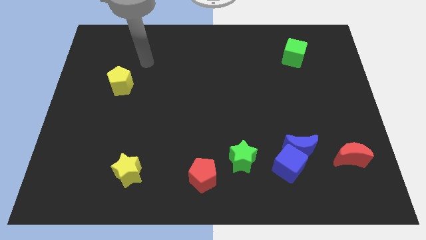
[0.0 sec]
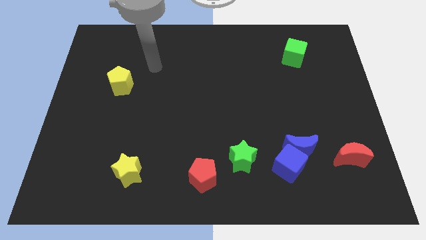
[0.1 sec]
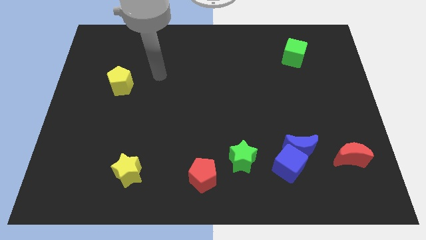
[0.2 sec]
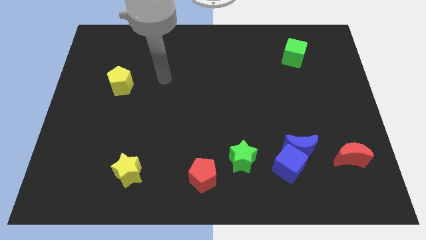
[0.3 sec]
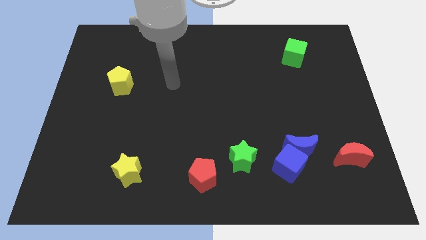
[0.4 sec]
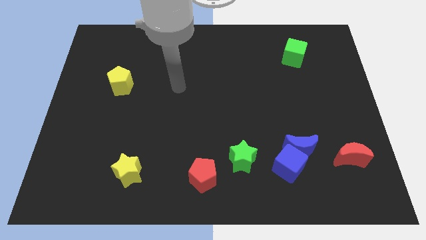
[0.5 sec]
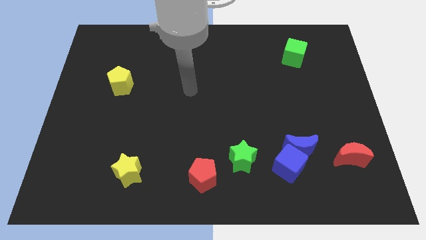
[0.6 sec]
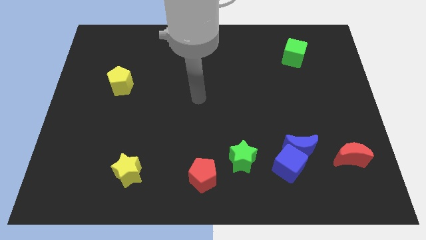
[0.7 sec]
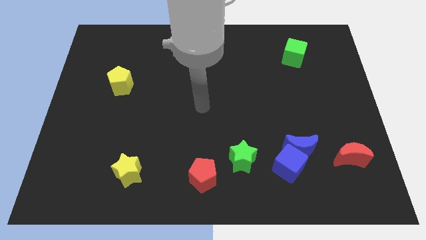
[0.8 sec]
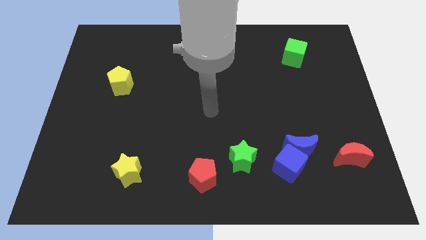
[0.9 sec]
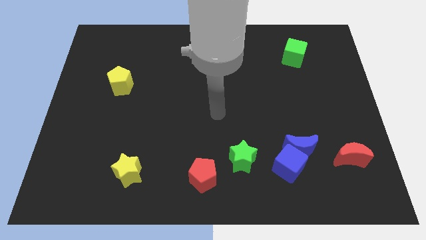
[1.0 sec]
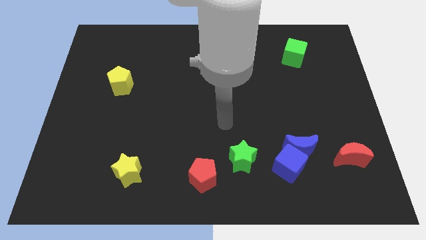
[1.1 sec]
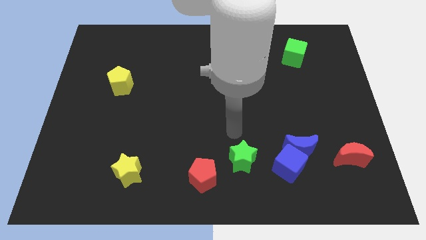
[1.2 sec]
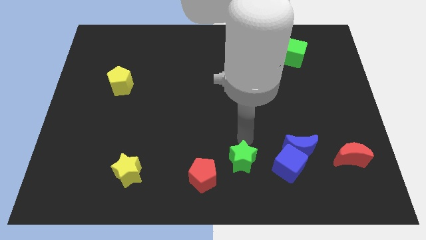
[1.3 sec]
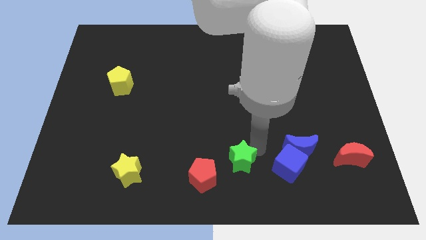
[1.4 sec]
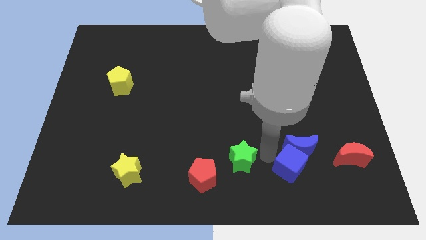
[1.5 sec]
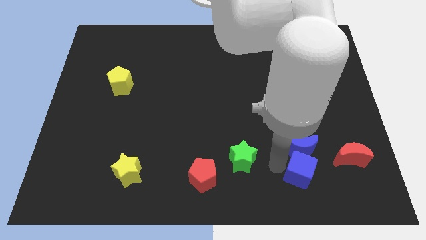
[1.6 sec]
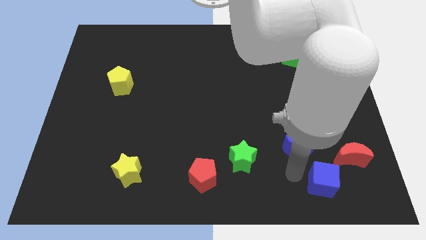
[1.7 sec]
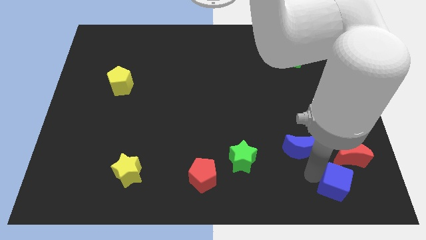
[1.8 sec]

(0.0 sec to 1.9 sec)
pull the blue moon apart from the blue cube

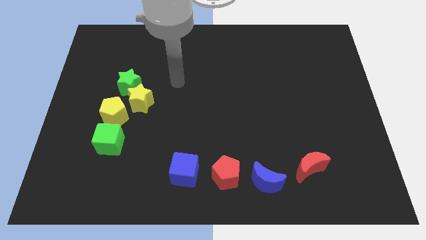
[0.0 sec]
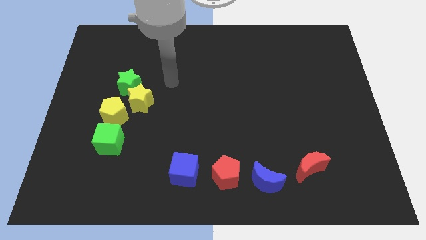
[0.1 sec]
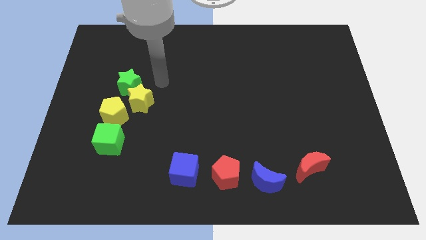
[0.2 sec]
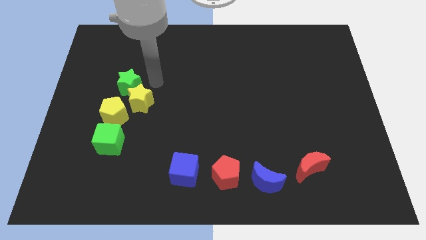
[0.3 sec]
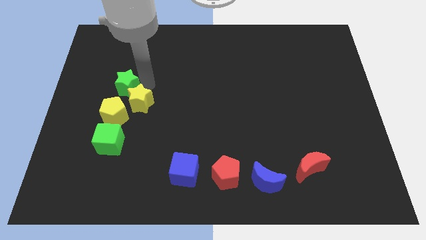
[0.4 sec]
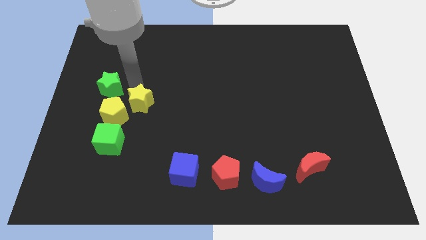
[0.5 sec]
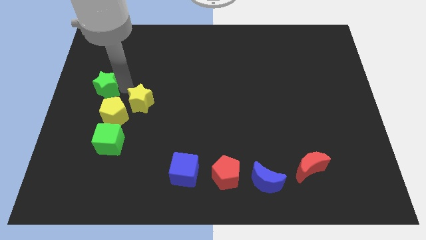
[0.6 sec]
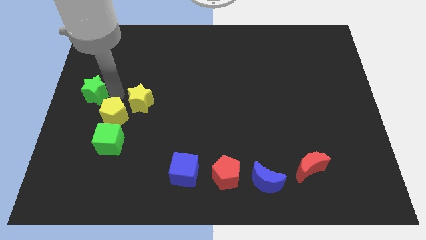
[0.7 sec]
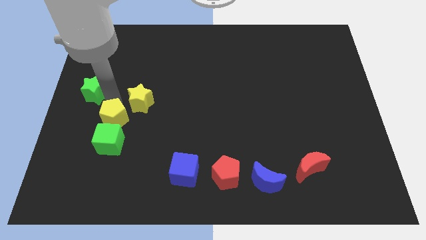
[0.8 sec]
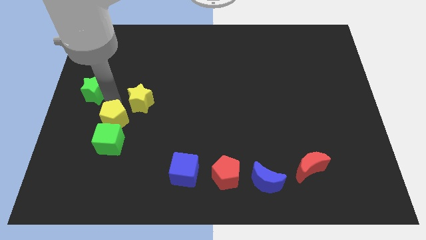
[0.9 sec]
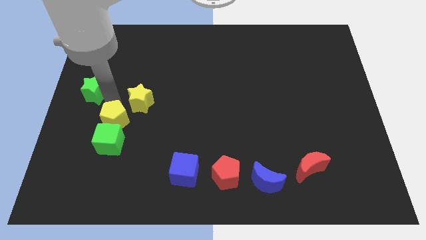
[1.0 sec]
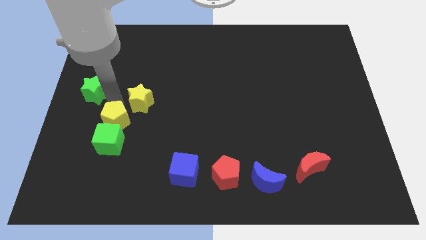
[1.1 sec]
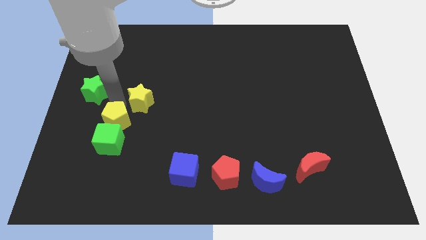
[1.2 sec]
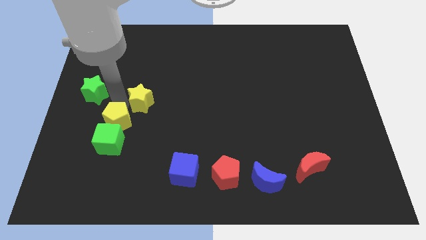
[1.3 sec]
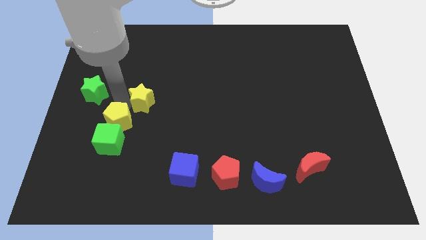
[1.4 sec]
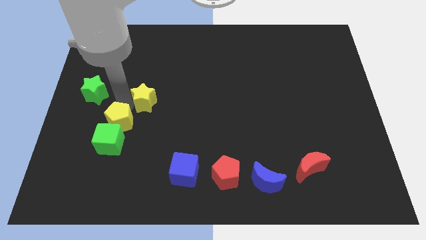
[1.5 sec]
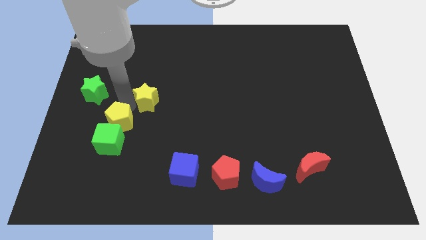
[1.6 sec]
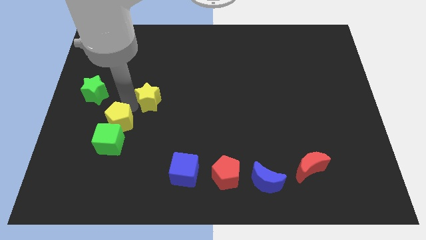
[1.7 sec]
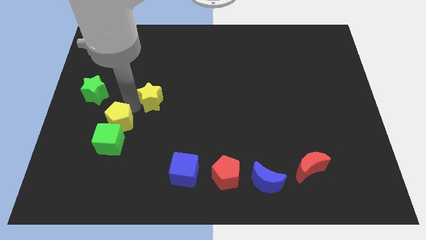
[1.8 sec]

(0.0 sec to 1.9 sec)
move the yellow star away from the green star and yellow pentagon

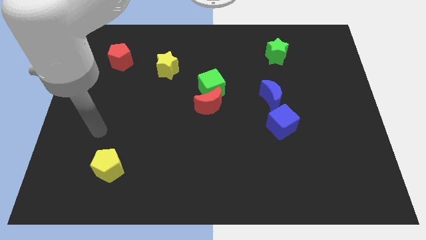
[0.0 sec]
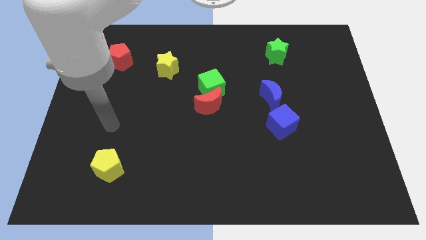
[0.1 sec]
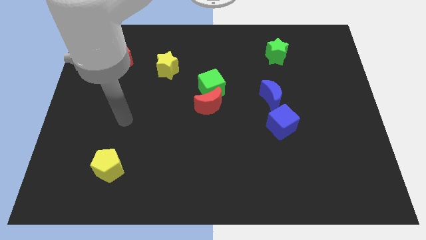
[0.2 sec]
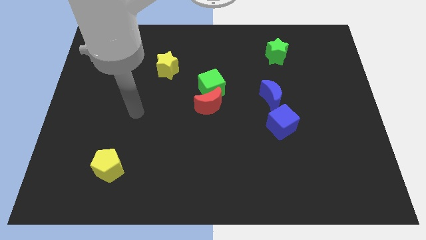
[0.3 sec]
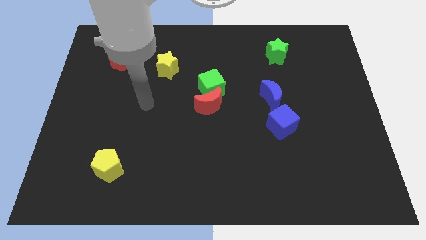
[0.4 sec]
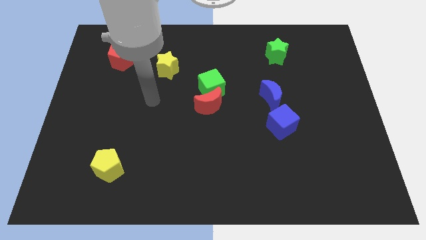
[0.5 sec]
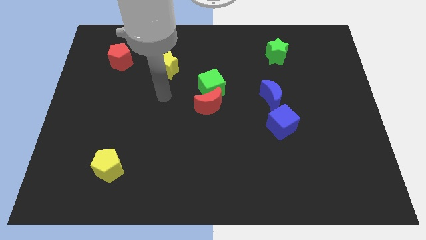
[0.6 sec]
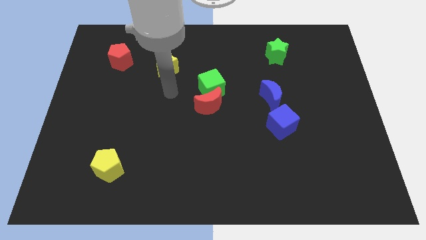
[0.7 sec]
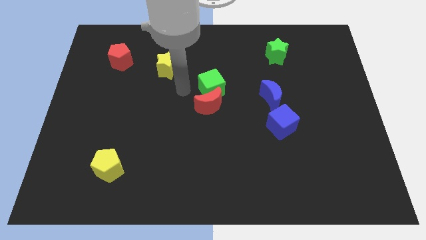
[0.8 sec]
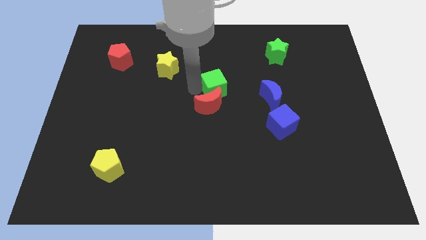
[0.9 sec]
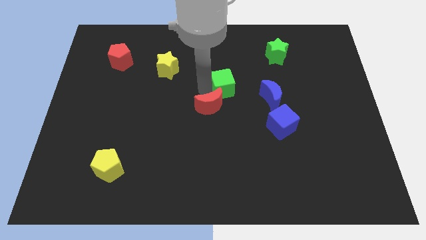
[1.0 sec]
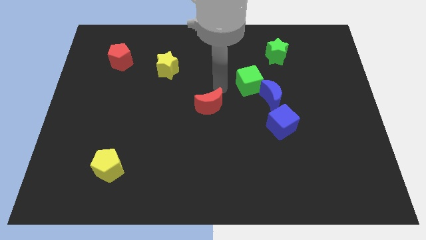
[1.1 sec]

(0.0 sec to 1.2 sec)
move the red moon away from the green cube

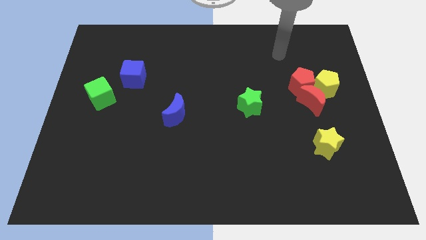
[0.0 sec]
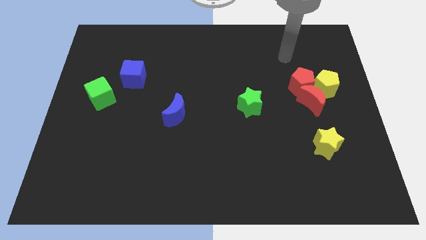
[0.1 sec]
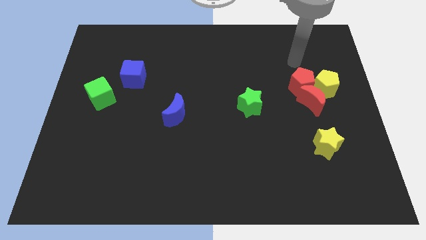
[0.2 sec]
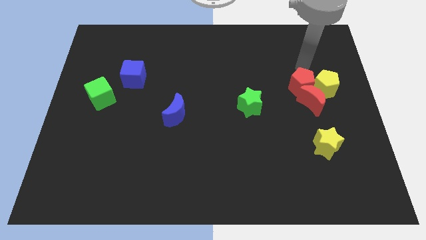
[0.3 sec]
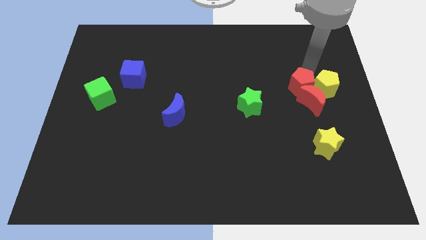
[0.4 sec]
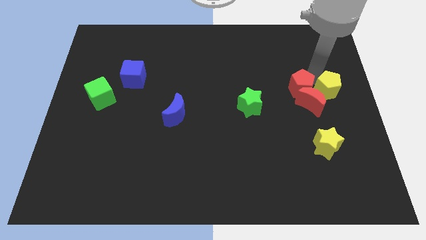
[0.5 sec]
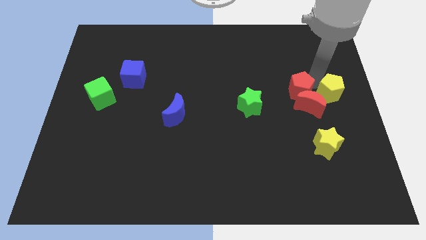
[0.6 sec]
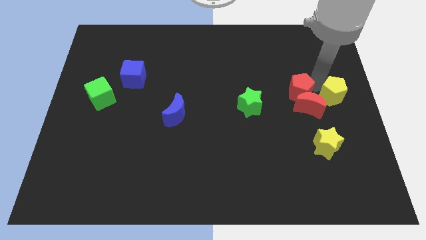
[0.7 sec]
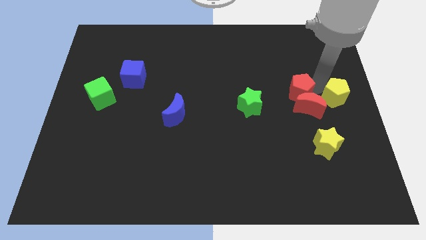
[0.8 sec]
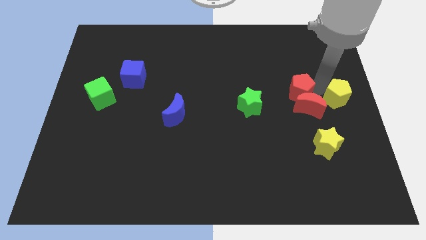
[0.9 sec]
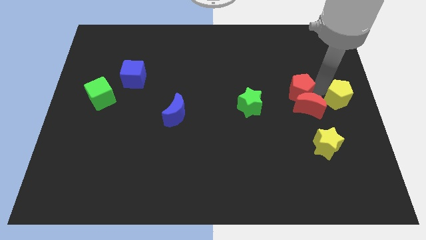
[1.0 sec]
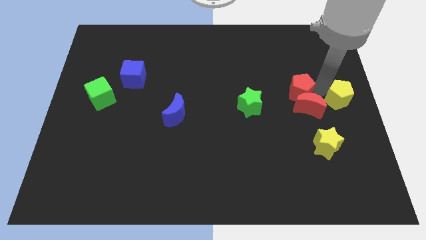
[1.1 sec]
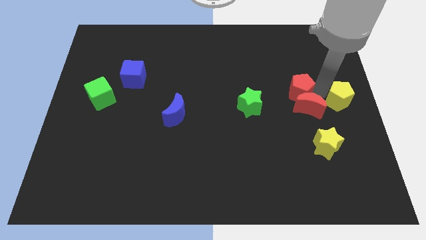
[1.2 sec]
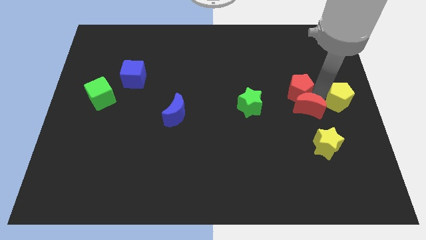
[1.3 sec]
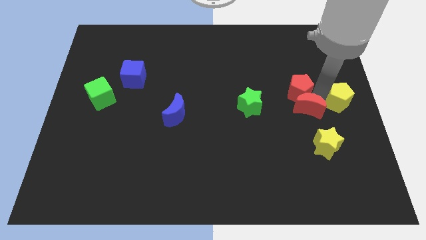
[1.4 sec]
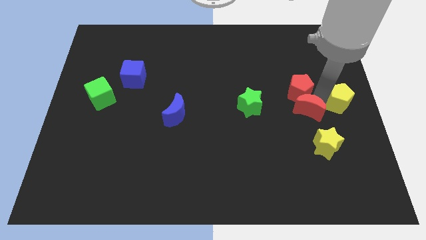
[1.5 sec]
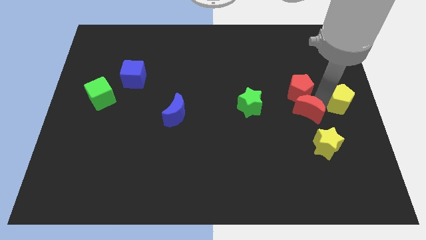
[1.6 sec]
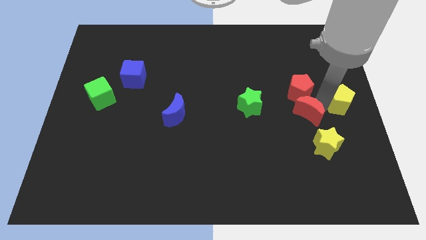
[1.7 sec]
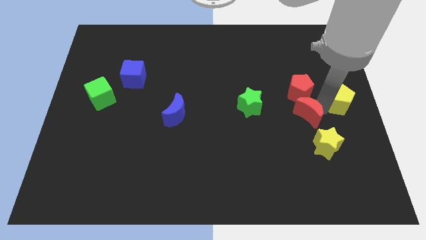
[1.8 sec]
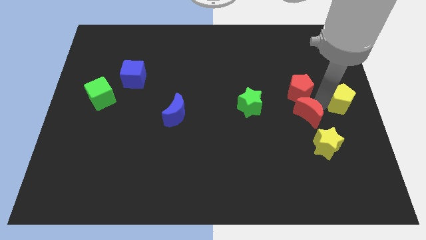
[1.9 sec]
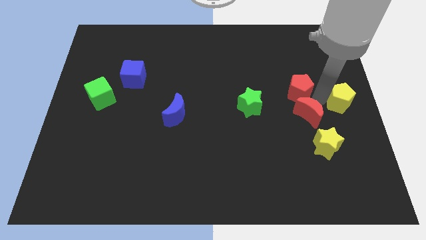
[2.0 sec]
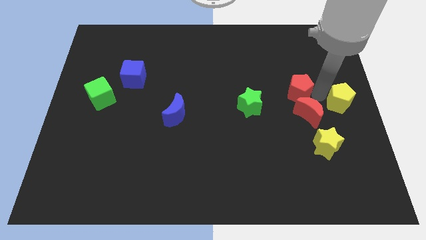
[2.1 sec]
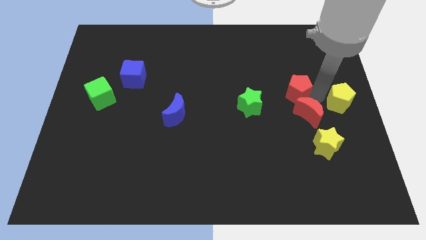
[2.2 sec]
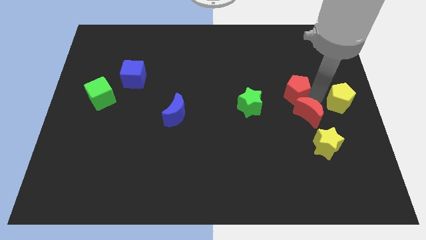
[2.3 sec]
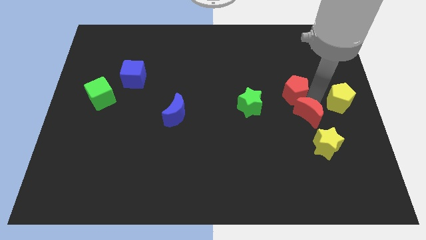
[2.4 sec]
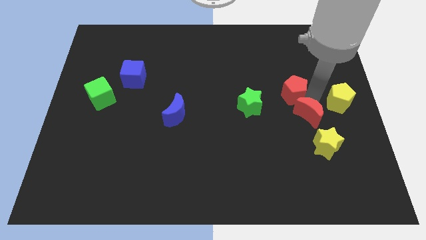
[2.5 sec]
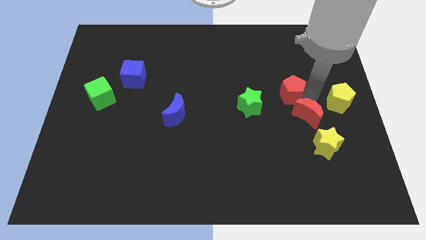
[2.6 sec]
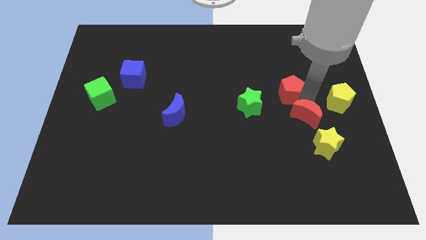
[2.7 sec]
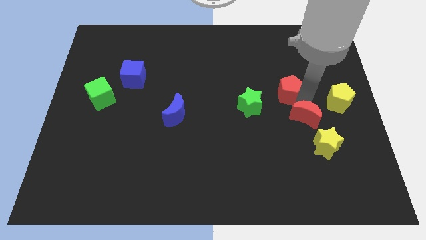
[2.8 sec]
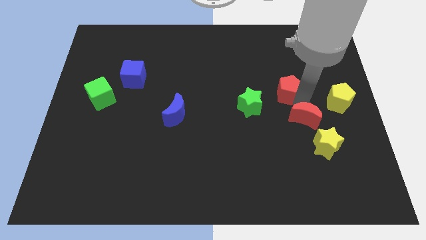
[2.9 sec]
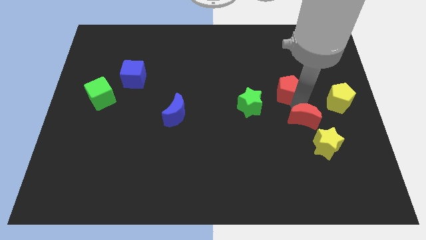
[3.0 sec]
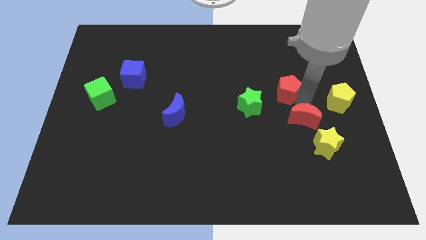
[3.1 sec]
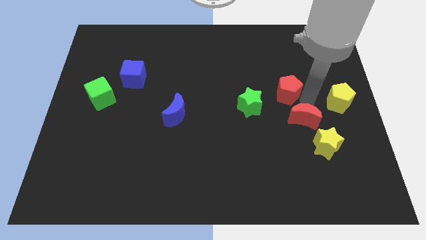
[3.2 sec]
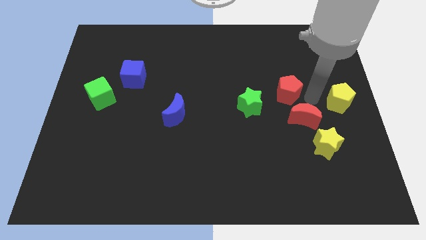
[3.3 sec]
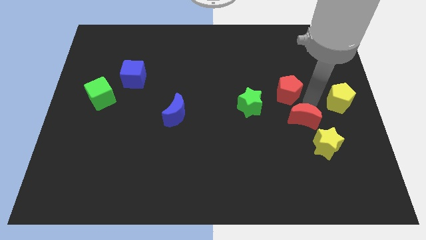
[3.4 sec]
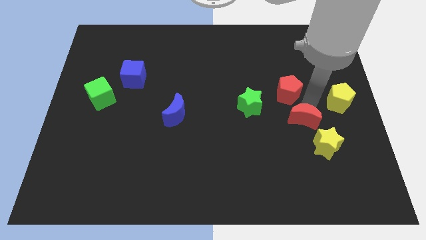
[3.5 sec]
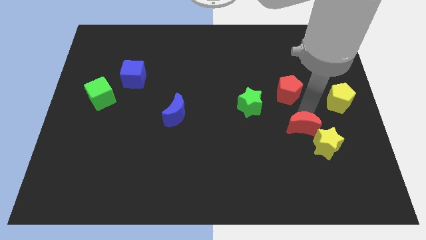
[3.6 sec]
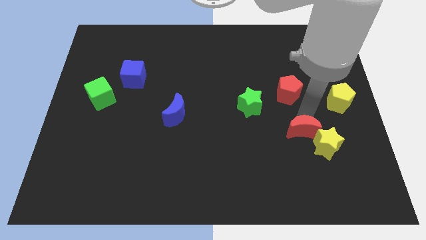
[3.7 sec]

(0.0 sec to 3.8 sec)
pull the red moon apart from the red pentagon and yellow pentagon

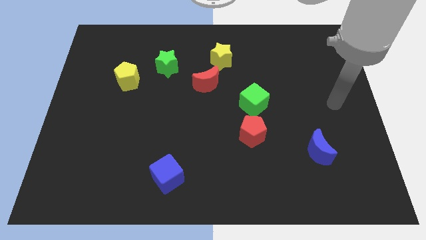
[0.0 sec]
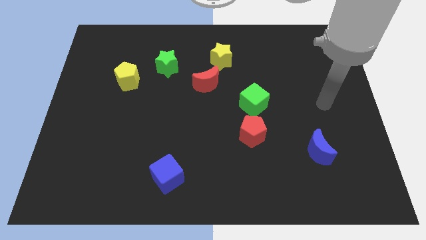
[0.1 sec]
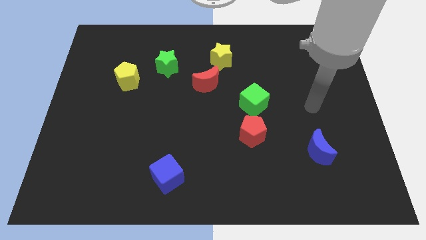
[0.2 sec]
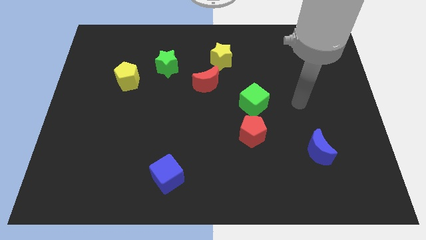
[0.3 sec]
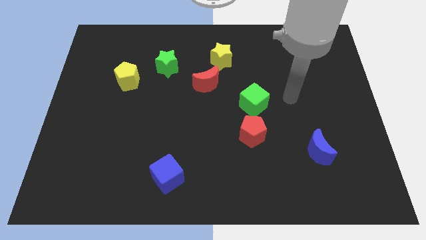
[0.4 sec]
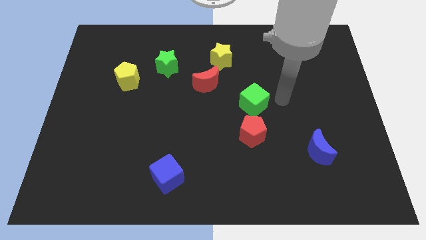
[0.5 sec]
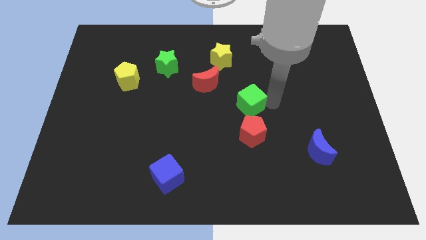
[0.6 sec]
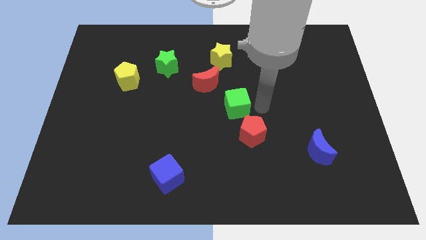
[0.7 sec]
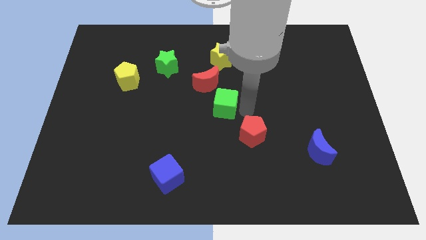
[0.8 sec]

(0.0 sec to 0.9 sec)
move the red pentagon away from the green cube
